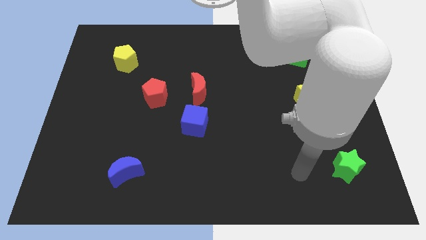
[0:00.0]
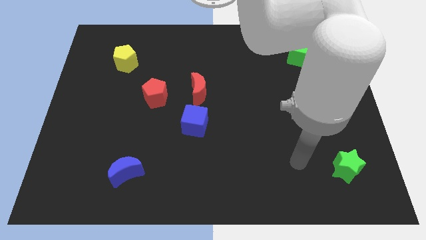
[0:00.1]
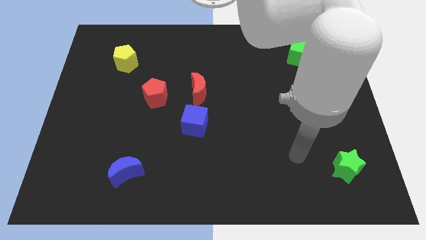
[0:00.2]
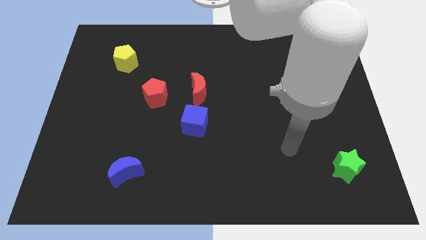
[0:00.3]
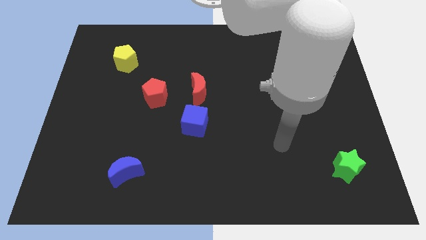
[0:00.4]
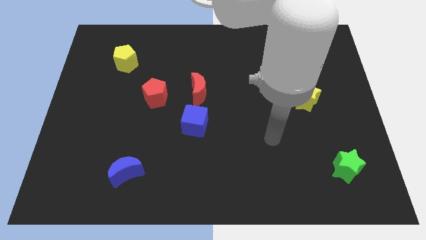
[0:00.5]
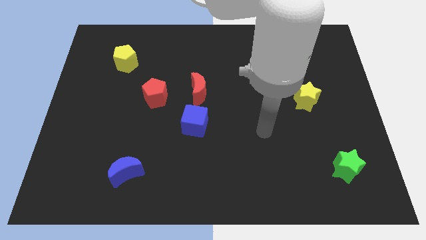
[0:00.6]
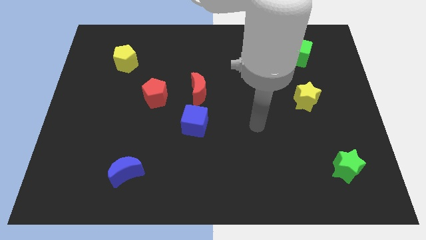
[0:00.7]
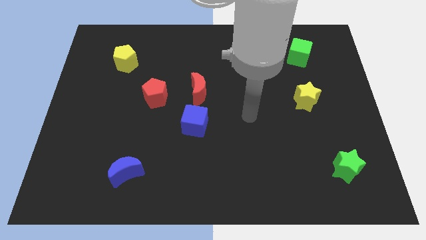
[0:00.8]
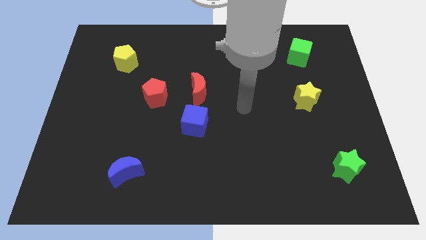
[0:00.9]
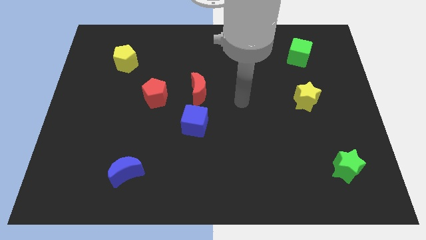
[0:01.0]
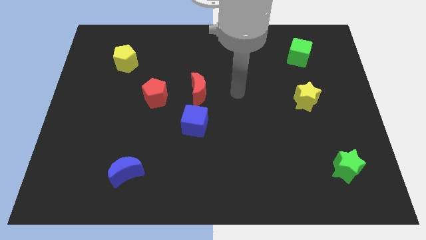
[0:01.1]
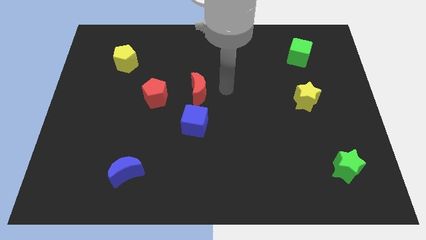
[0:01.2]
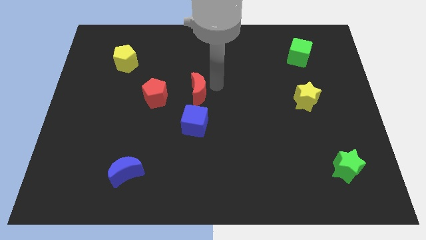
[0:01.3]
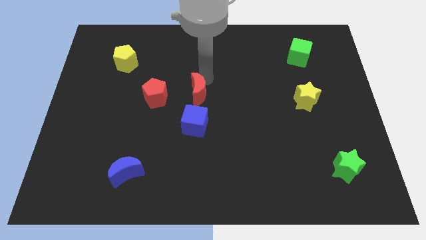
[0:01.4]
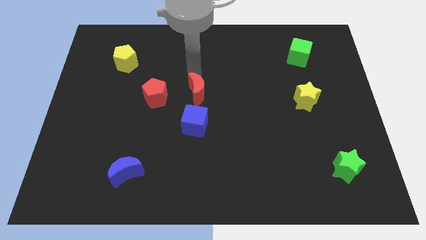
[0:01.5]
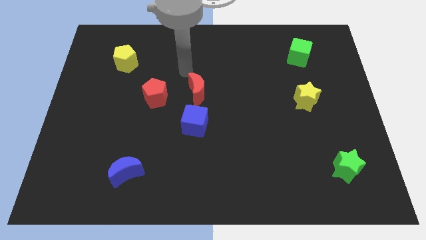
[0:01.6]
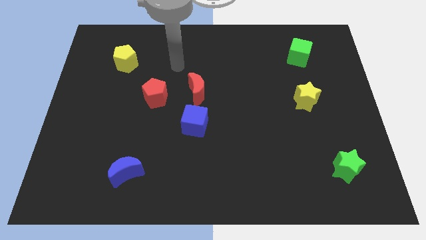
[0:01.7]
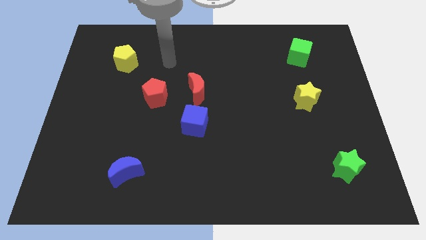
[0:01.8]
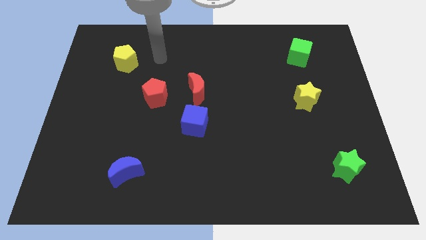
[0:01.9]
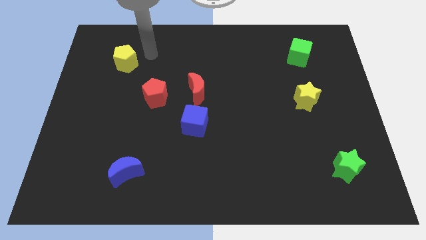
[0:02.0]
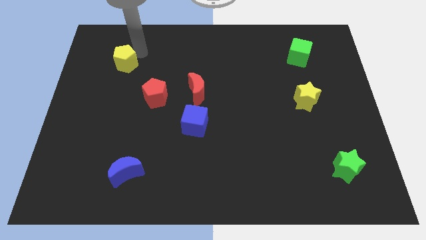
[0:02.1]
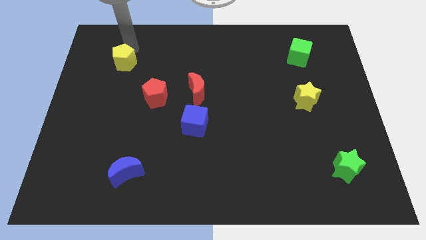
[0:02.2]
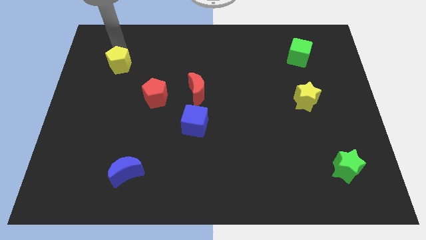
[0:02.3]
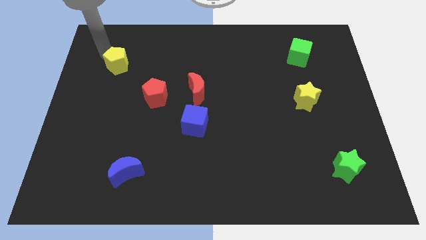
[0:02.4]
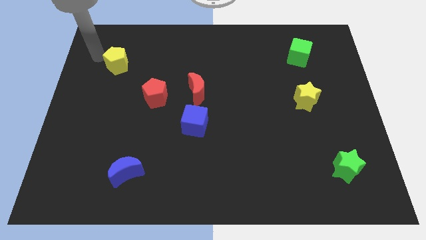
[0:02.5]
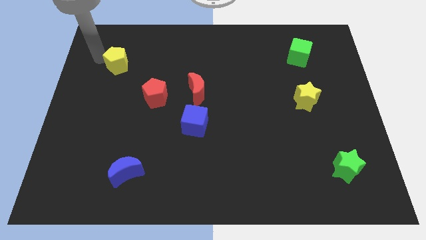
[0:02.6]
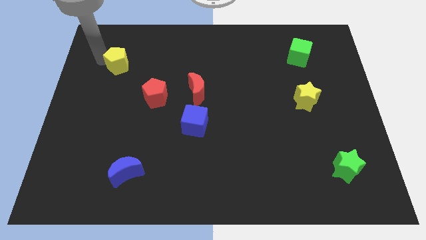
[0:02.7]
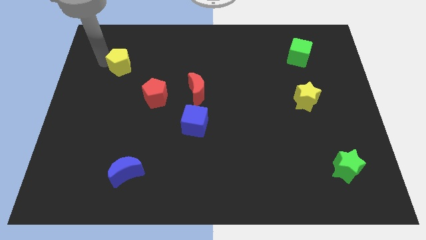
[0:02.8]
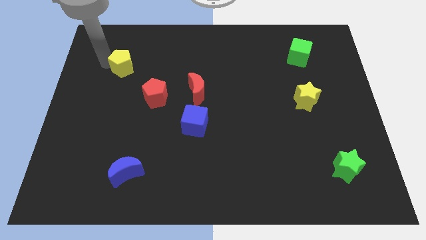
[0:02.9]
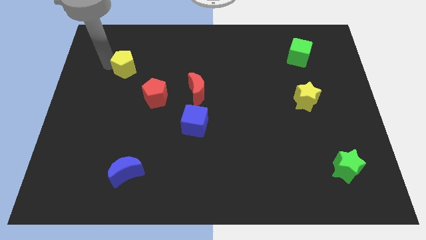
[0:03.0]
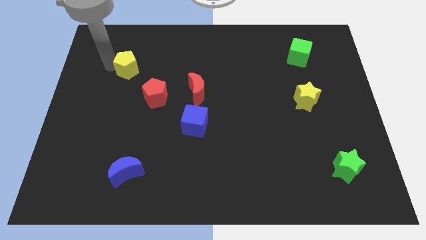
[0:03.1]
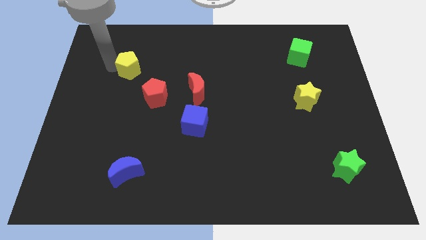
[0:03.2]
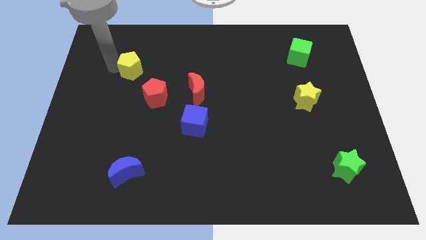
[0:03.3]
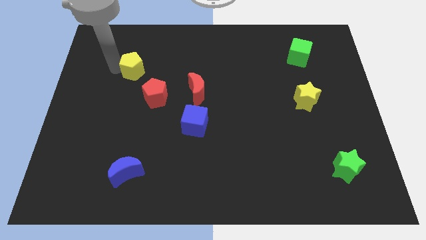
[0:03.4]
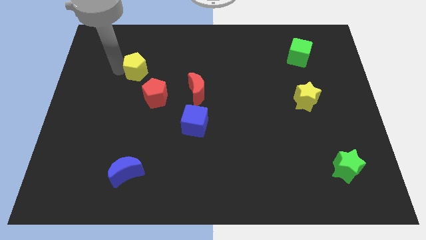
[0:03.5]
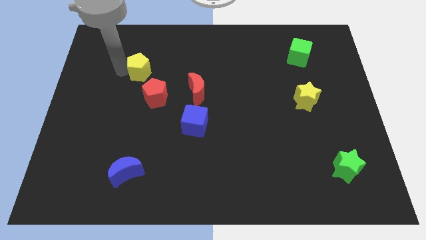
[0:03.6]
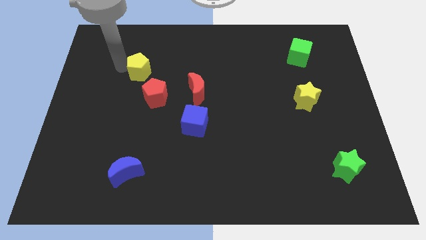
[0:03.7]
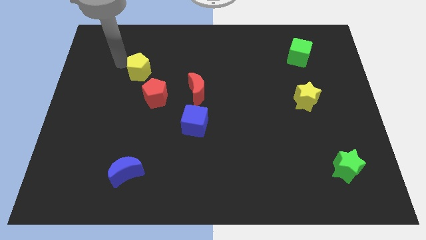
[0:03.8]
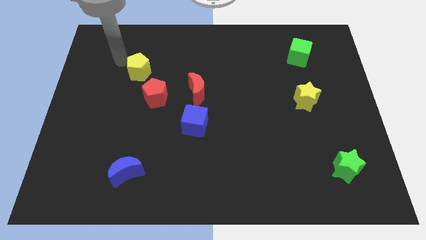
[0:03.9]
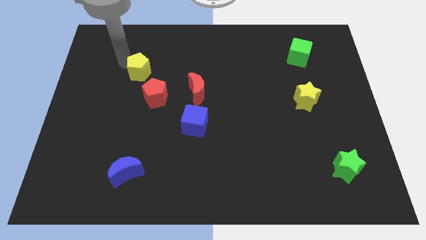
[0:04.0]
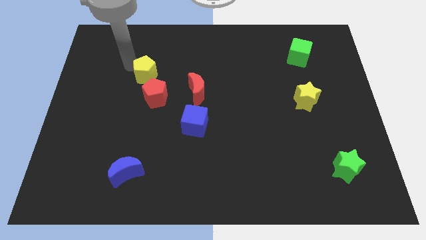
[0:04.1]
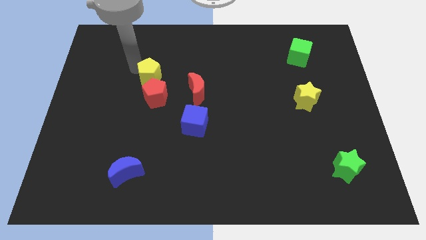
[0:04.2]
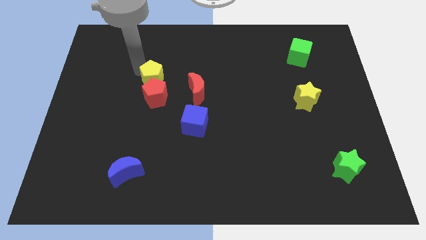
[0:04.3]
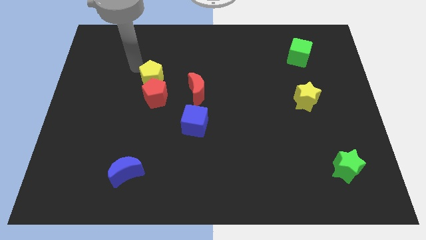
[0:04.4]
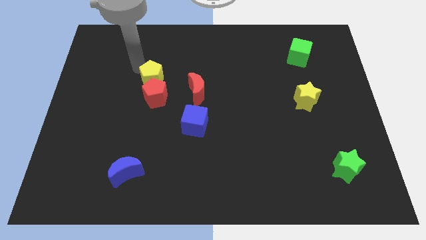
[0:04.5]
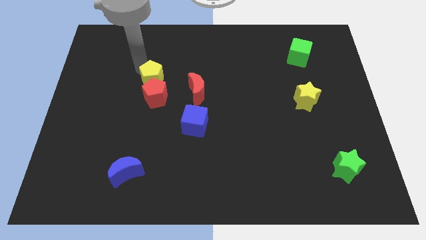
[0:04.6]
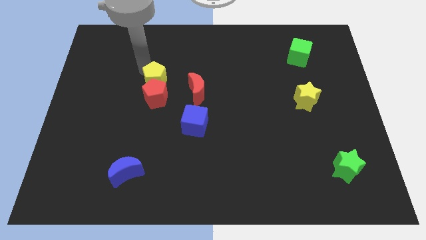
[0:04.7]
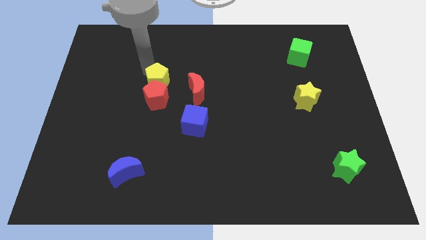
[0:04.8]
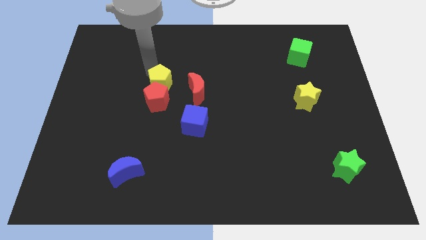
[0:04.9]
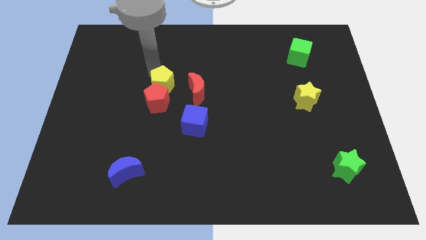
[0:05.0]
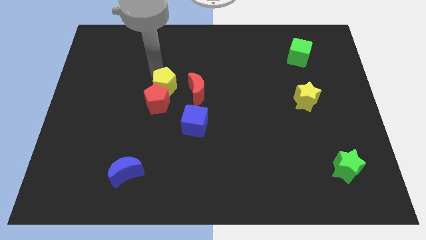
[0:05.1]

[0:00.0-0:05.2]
push the yellow pentagon to the center of the board

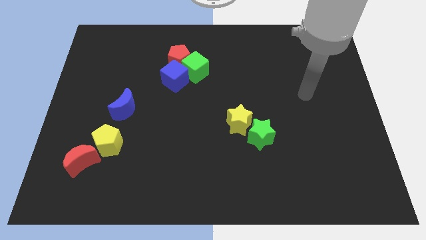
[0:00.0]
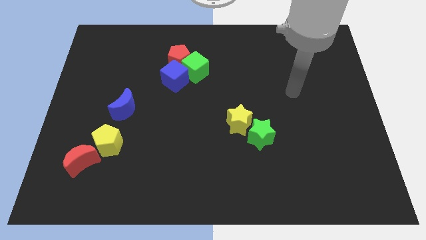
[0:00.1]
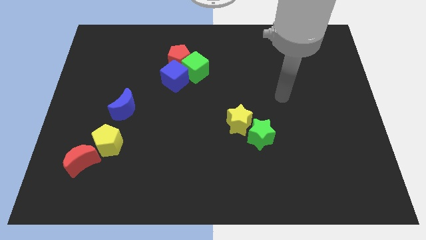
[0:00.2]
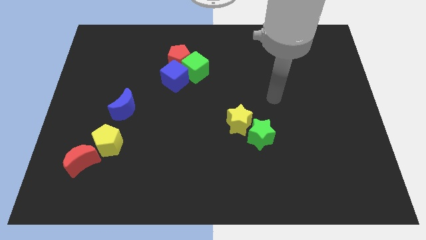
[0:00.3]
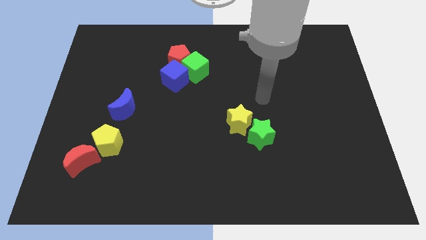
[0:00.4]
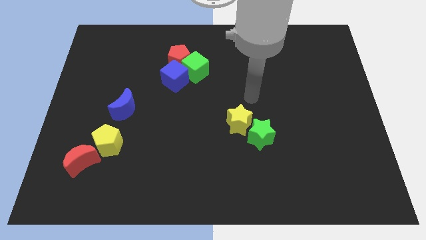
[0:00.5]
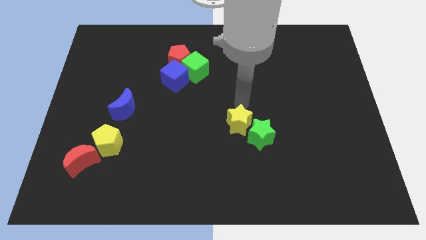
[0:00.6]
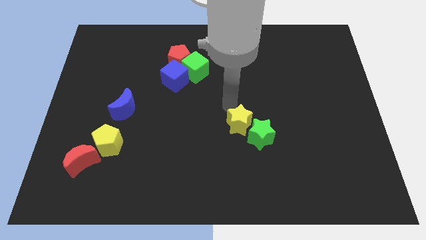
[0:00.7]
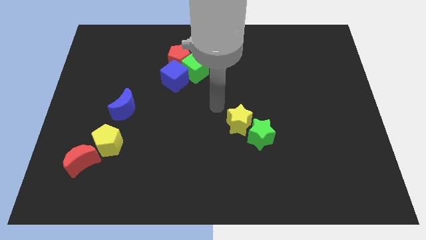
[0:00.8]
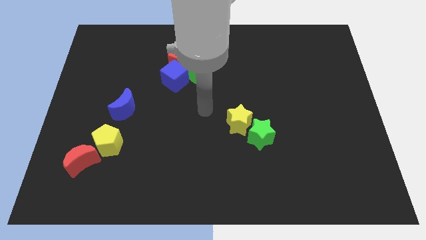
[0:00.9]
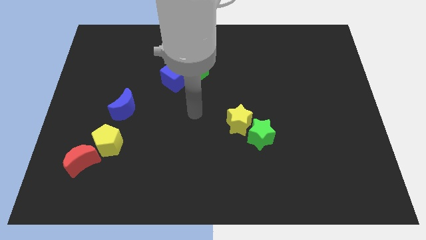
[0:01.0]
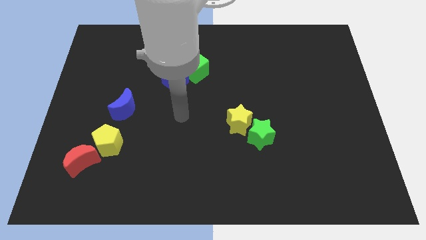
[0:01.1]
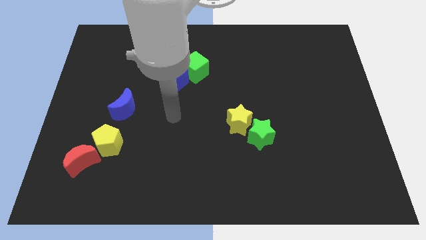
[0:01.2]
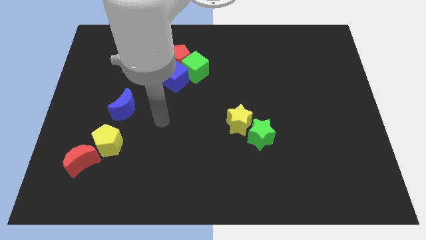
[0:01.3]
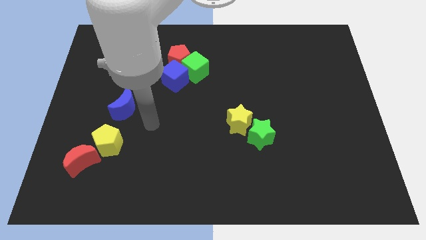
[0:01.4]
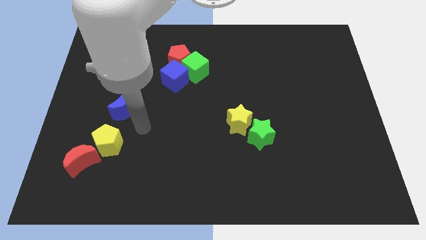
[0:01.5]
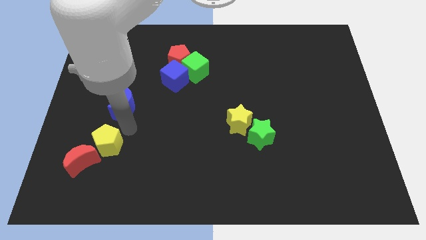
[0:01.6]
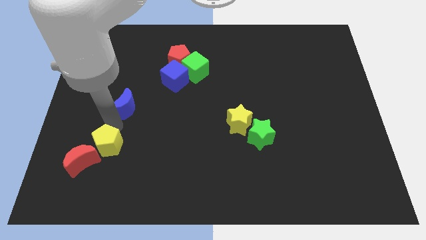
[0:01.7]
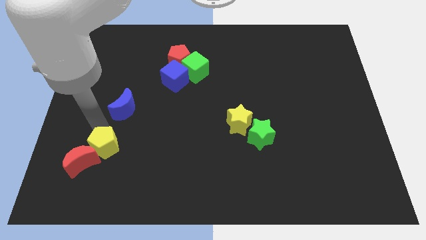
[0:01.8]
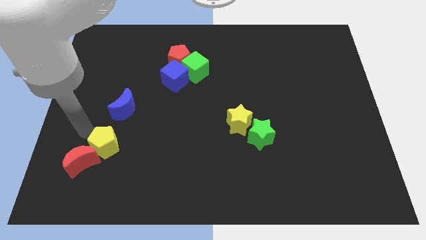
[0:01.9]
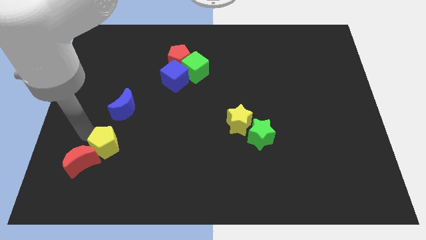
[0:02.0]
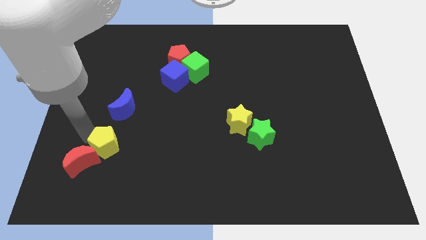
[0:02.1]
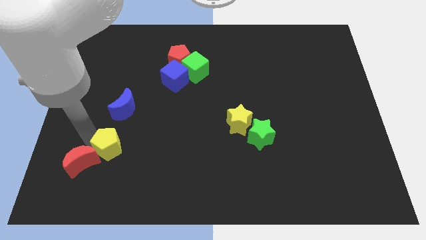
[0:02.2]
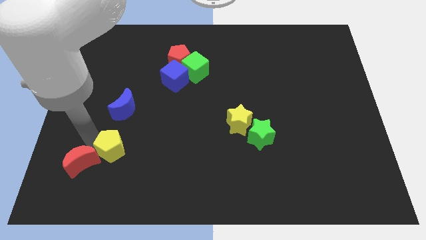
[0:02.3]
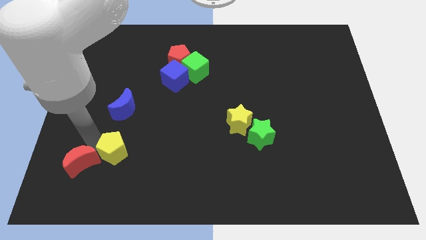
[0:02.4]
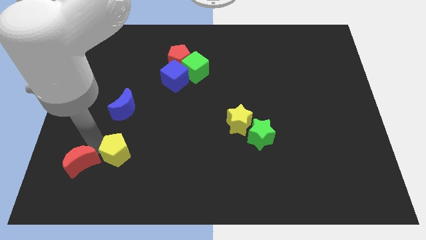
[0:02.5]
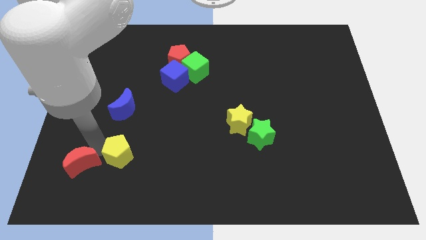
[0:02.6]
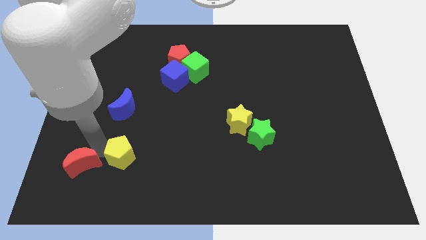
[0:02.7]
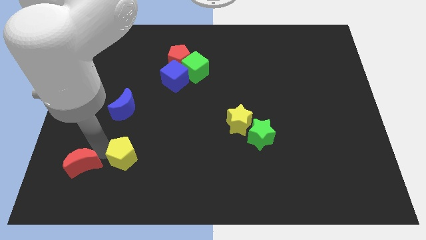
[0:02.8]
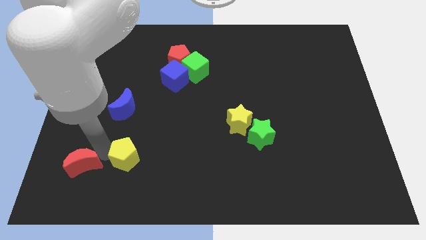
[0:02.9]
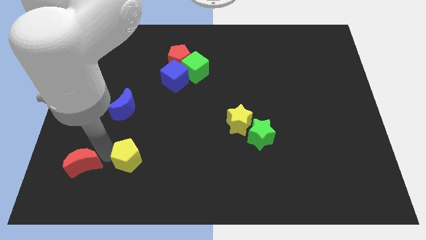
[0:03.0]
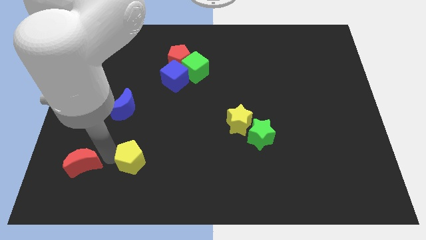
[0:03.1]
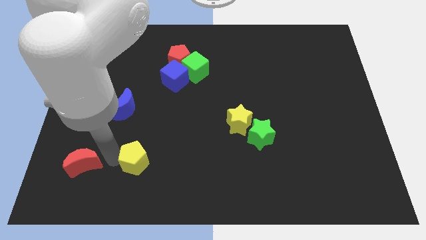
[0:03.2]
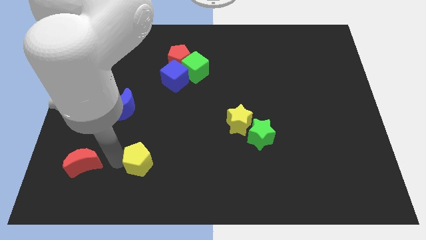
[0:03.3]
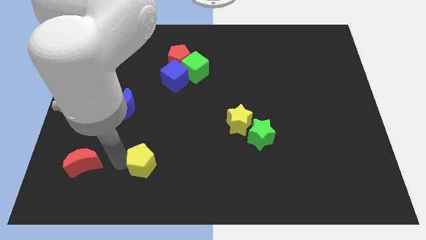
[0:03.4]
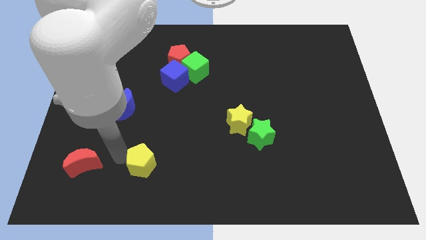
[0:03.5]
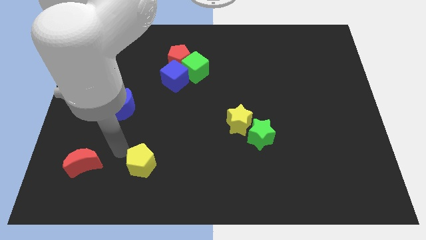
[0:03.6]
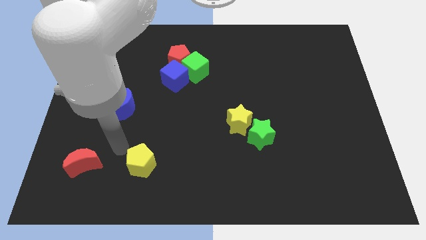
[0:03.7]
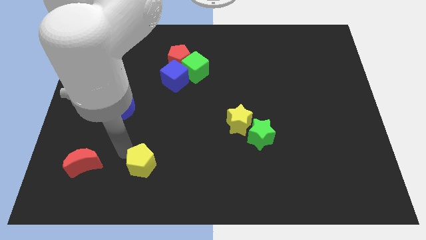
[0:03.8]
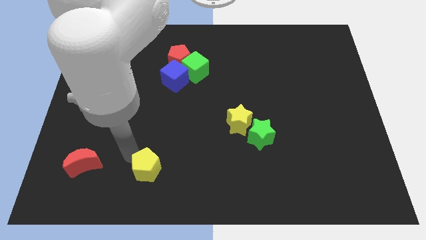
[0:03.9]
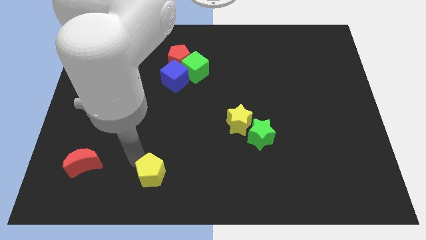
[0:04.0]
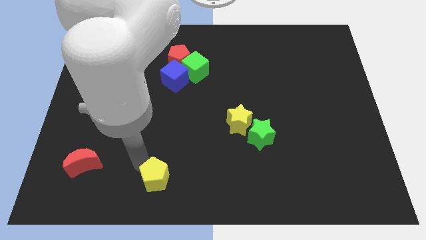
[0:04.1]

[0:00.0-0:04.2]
move the yellow pentagon to the bottom
